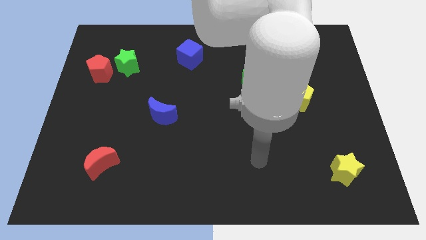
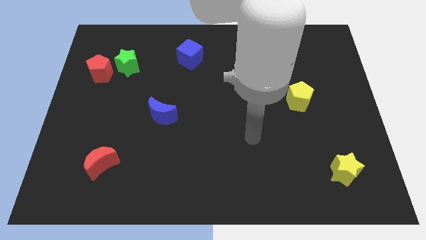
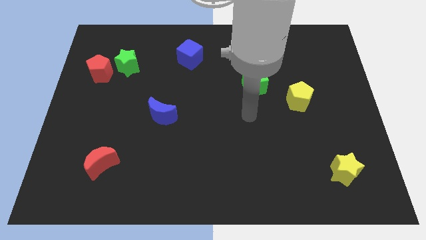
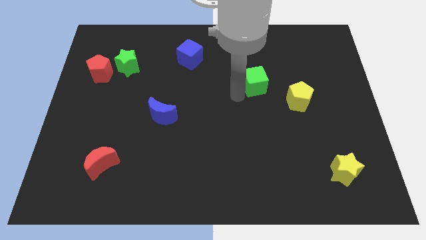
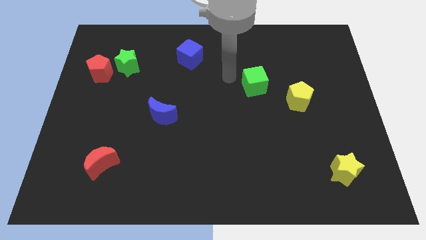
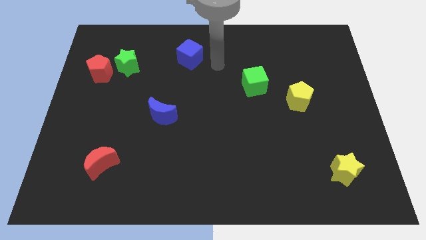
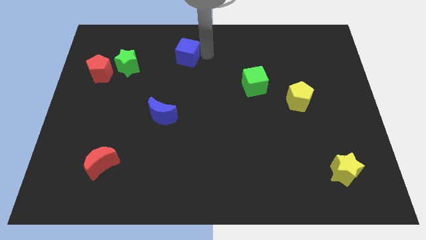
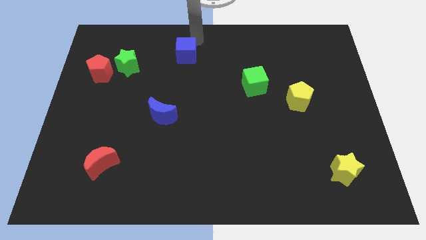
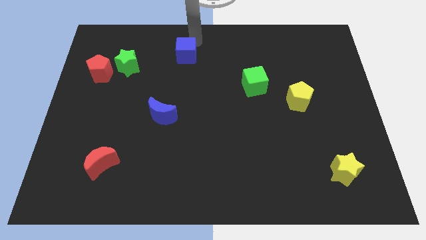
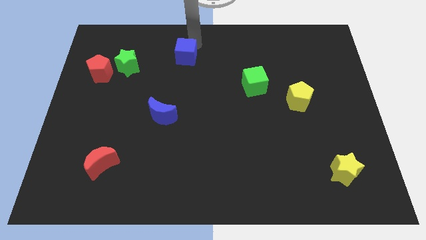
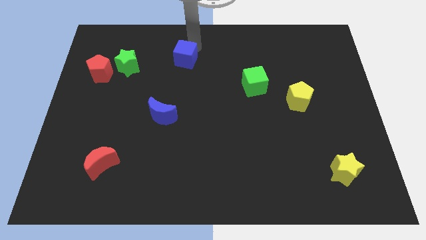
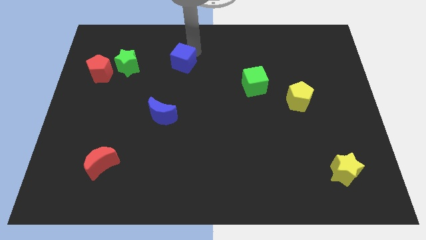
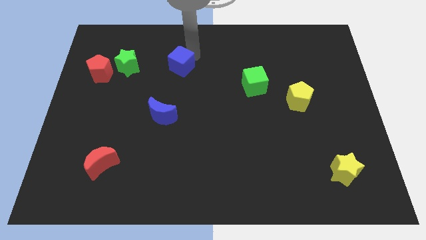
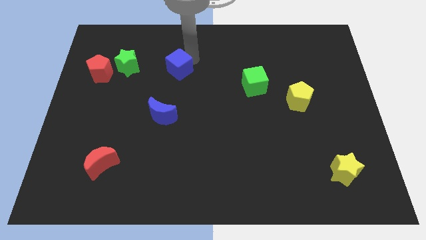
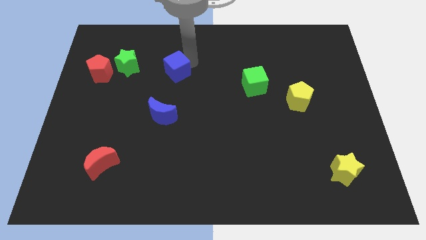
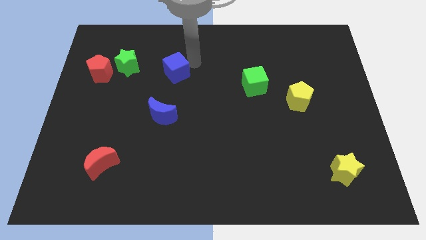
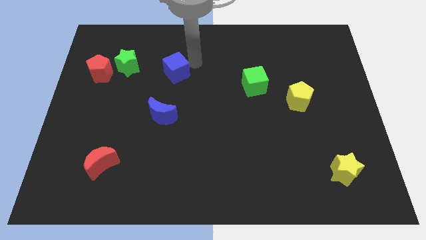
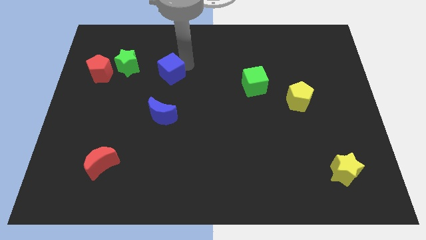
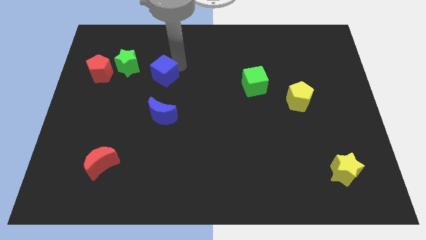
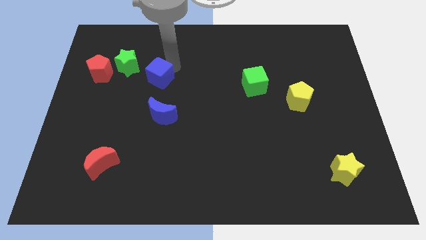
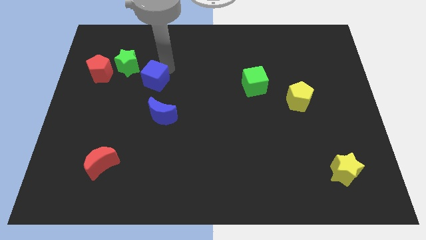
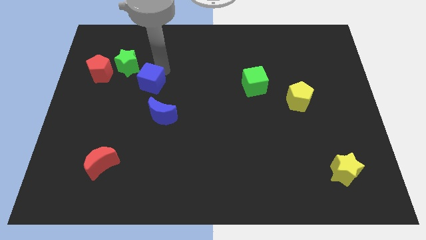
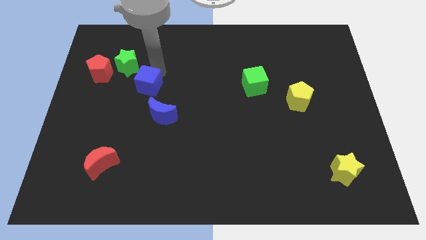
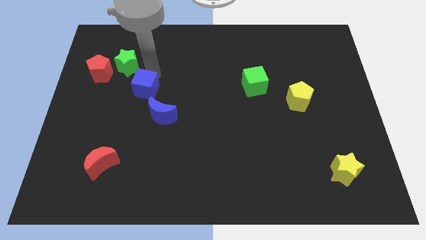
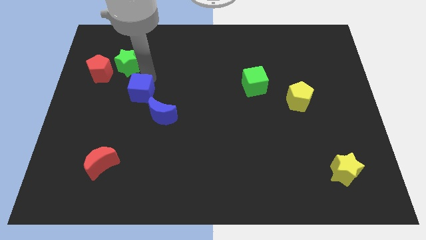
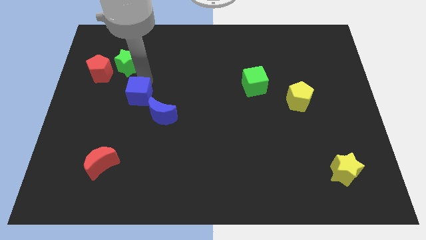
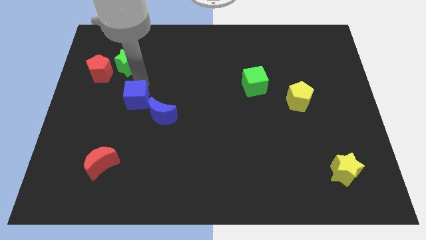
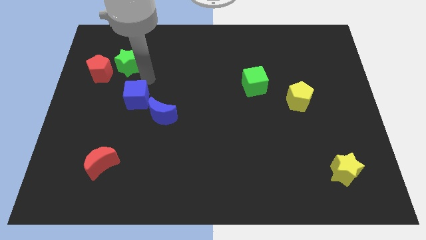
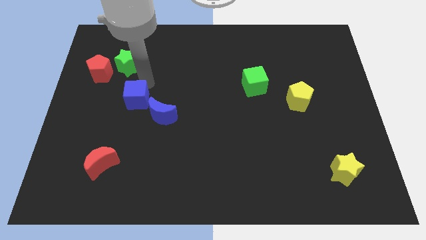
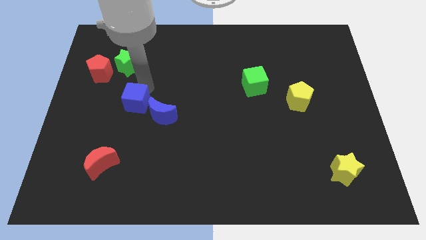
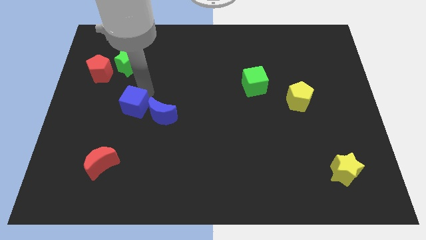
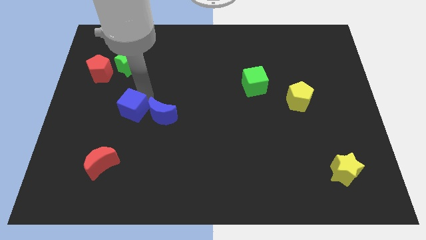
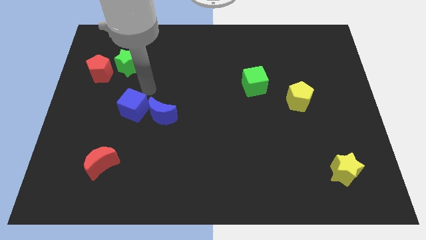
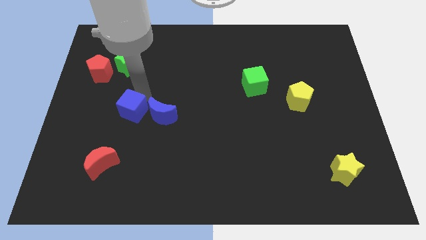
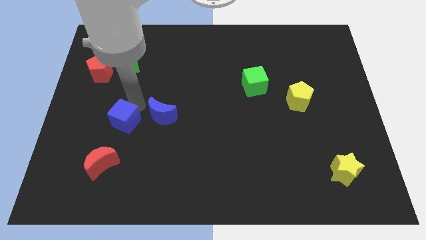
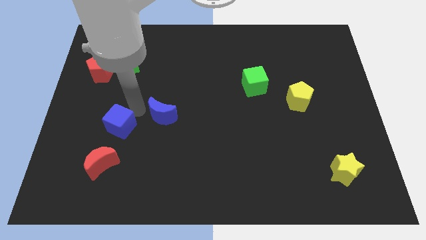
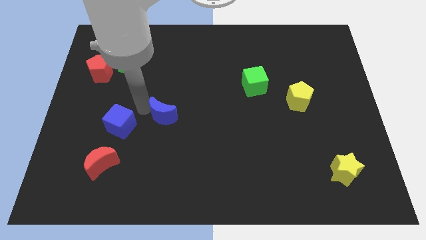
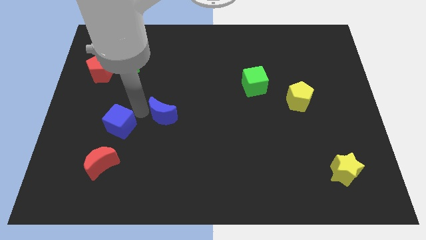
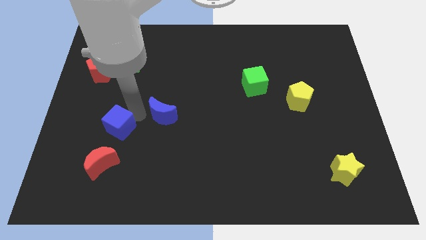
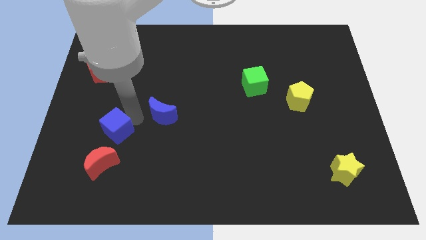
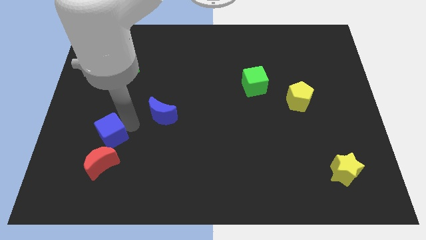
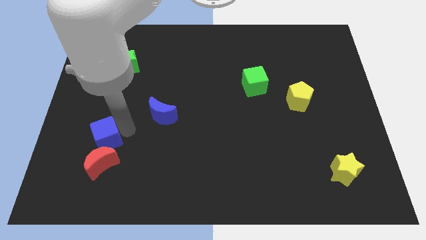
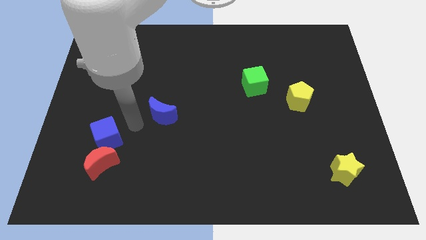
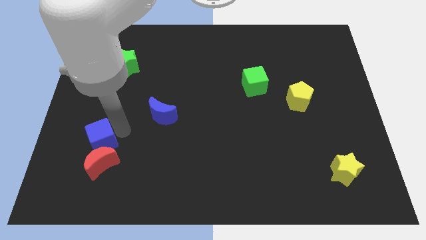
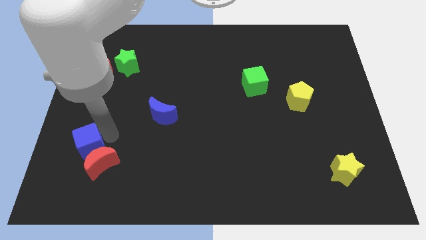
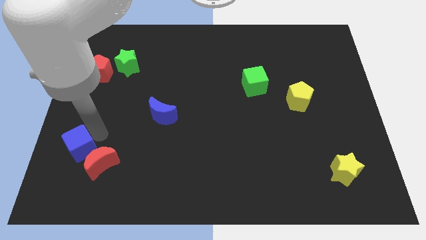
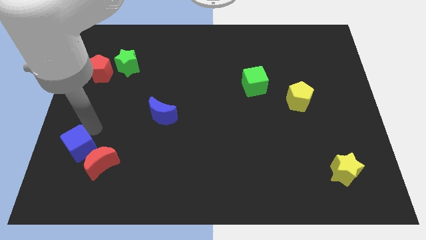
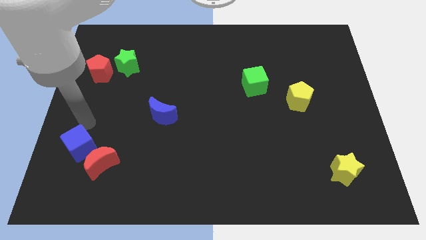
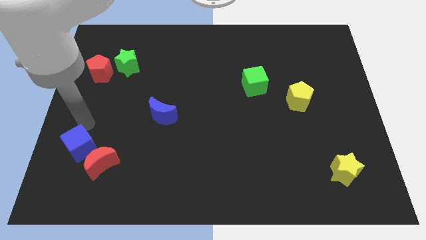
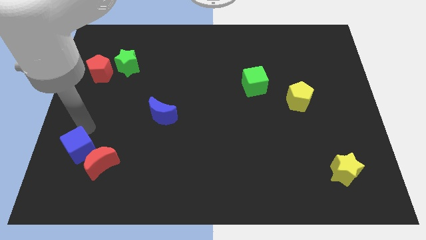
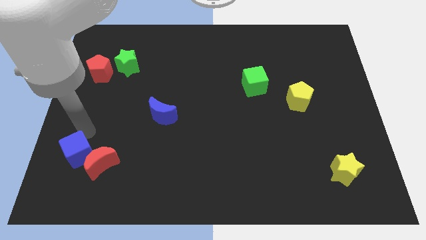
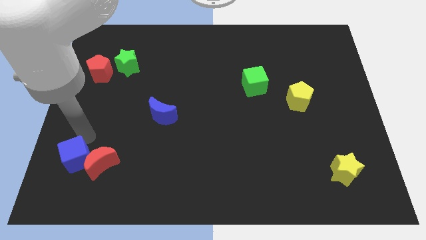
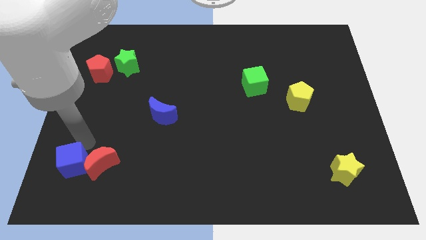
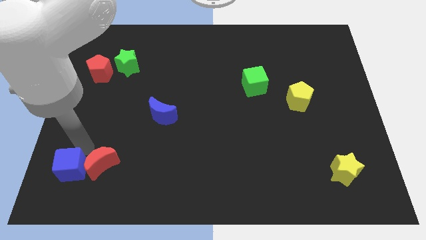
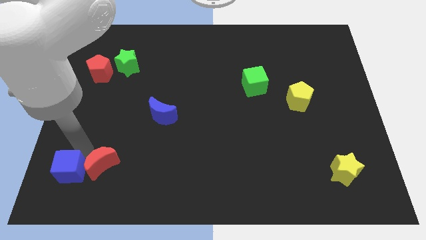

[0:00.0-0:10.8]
put the blue cube to the lower left corner
